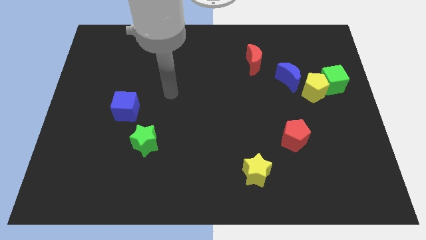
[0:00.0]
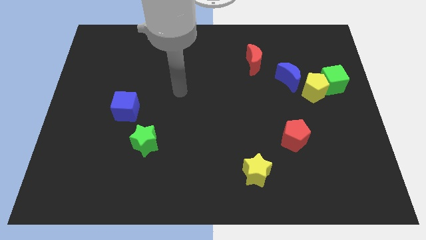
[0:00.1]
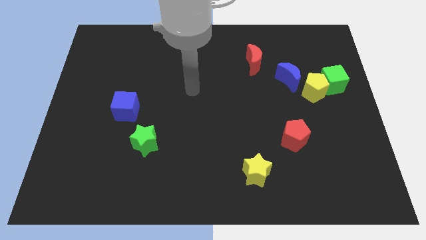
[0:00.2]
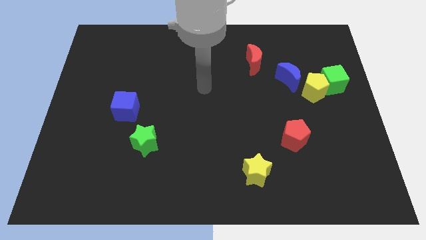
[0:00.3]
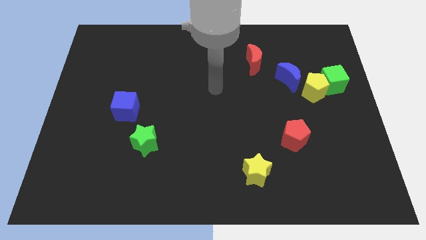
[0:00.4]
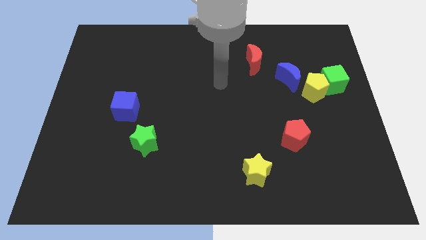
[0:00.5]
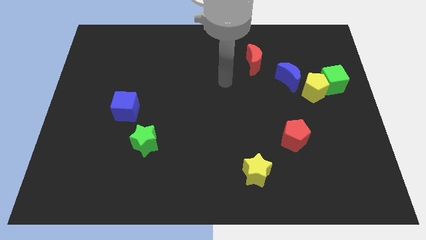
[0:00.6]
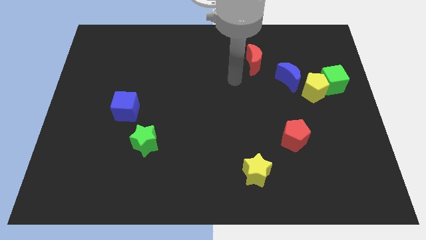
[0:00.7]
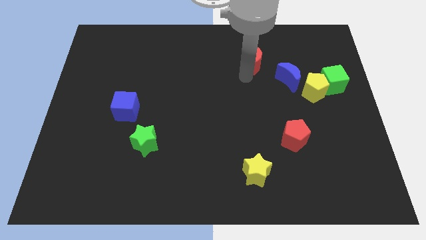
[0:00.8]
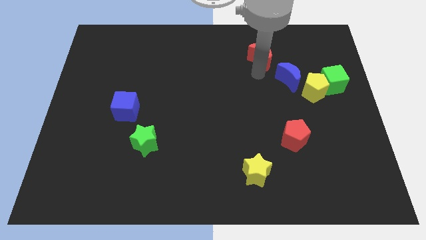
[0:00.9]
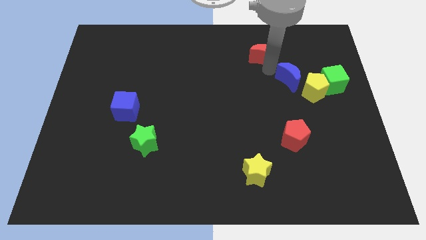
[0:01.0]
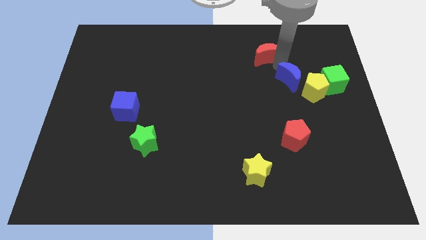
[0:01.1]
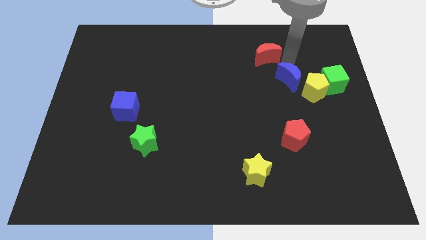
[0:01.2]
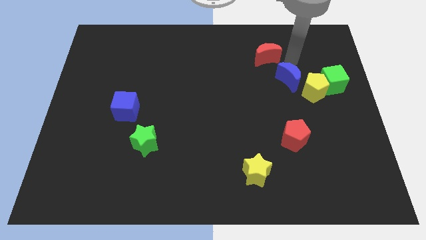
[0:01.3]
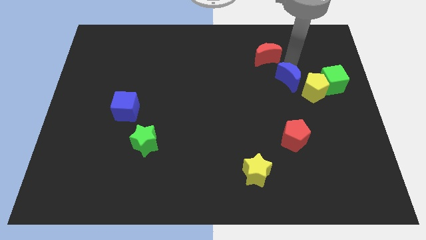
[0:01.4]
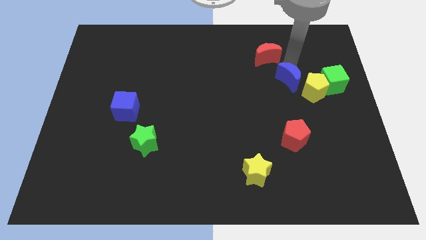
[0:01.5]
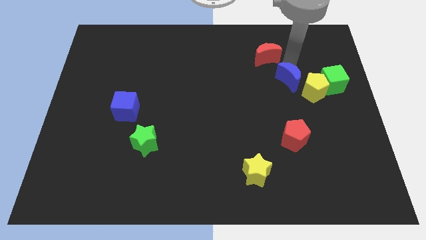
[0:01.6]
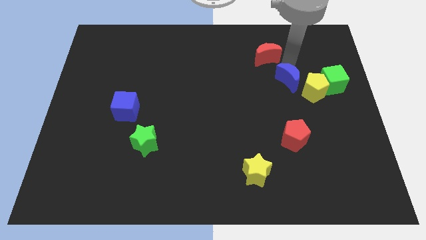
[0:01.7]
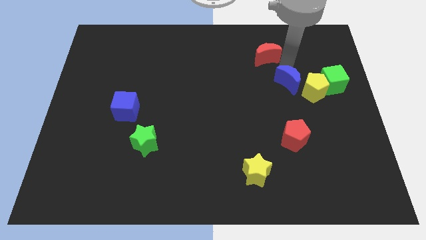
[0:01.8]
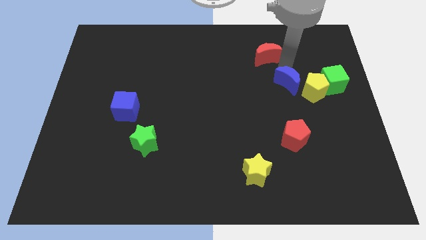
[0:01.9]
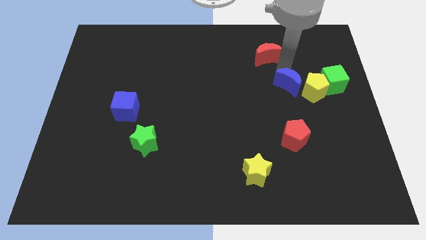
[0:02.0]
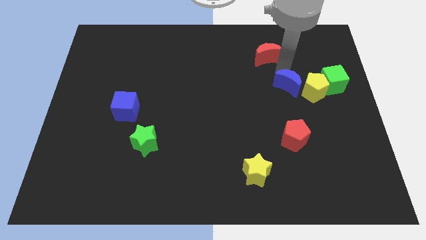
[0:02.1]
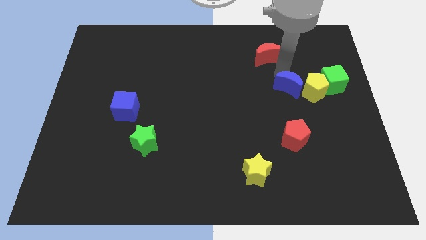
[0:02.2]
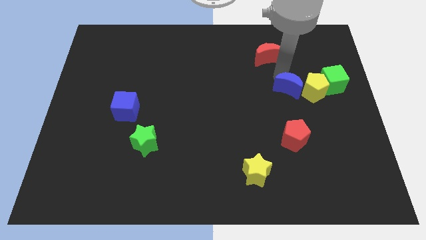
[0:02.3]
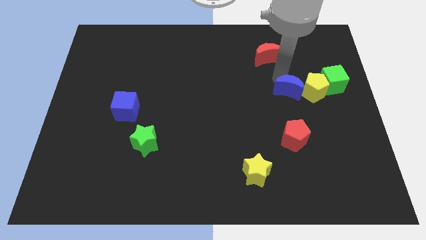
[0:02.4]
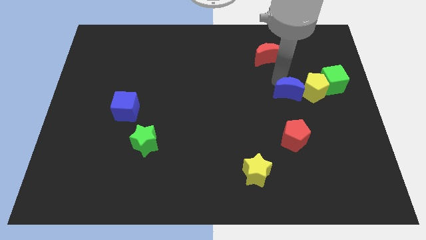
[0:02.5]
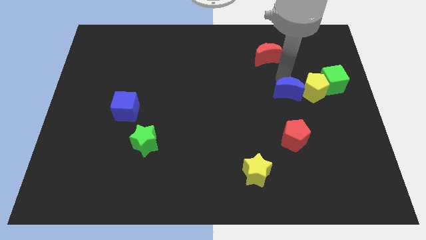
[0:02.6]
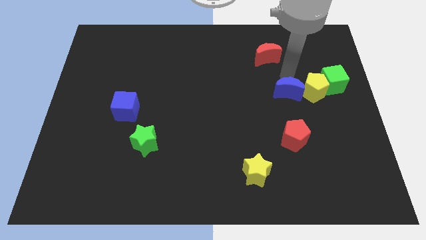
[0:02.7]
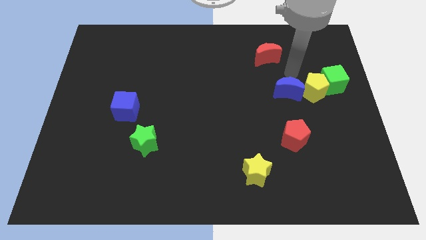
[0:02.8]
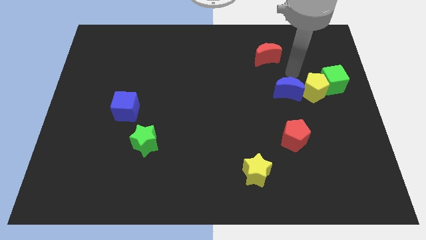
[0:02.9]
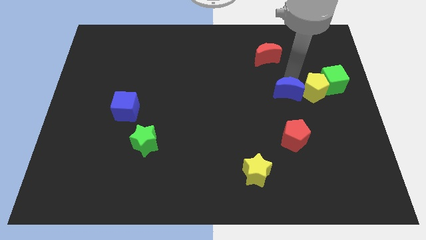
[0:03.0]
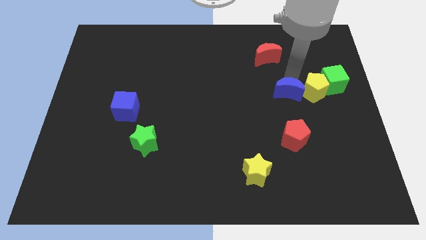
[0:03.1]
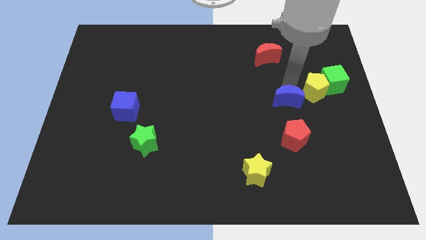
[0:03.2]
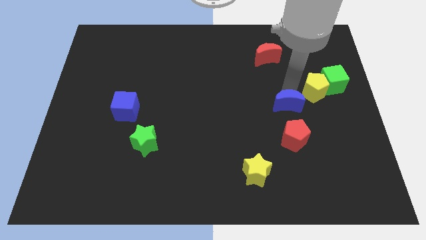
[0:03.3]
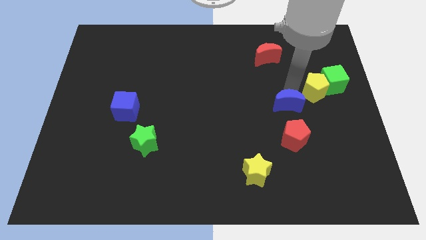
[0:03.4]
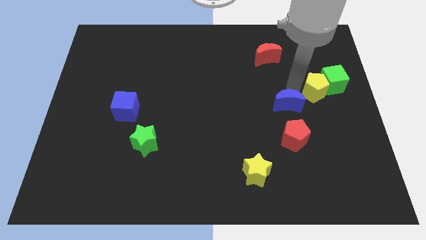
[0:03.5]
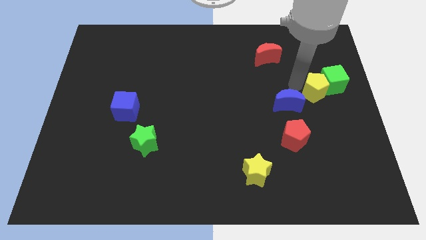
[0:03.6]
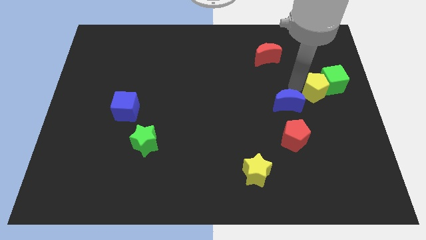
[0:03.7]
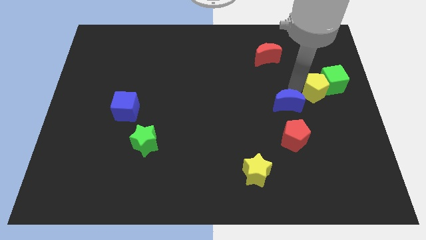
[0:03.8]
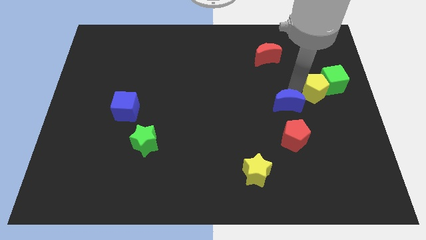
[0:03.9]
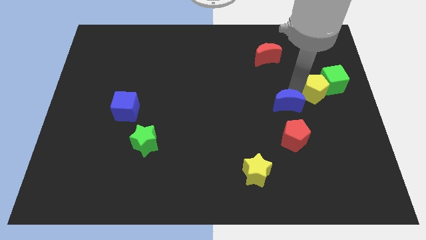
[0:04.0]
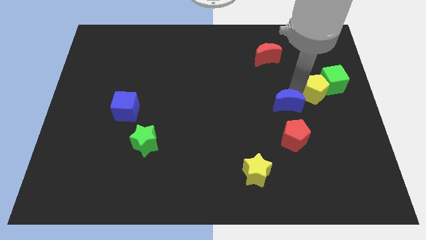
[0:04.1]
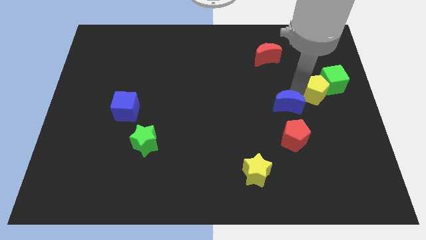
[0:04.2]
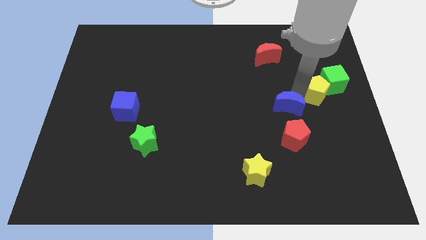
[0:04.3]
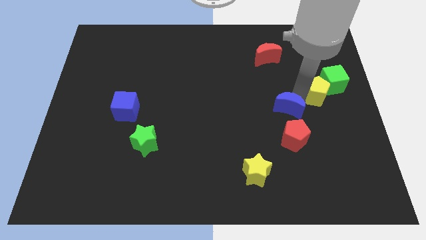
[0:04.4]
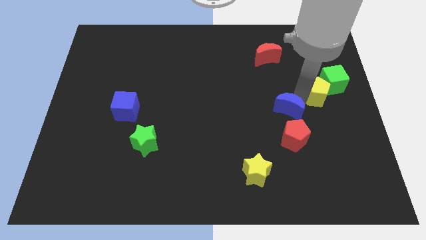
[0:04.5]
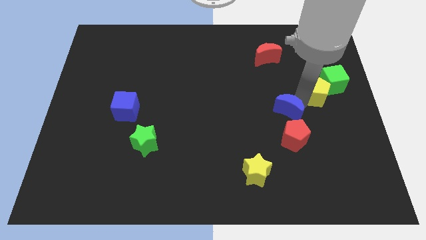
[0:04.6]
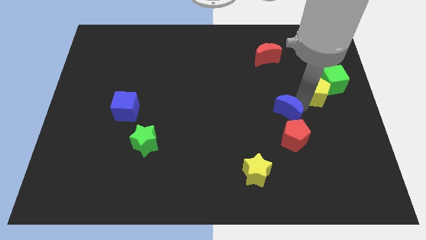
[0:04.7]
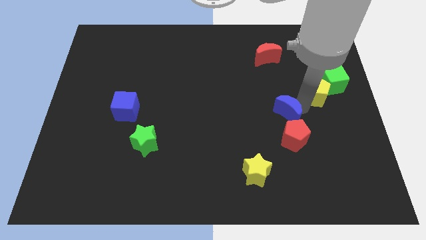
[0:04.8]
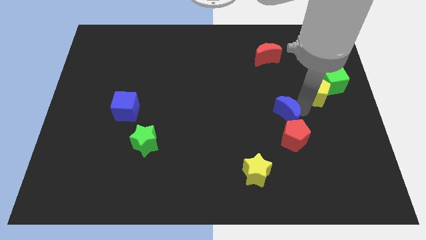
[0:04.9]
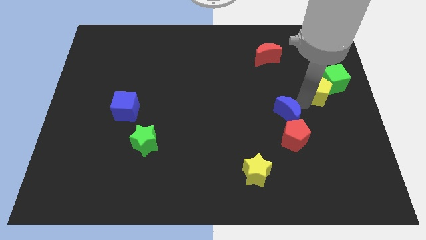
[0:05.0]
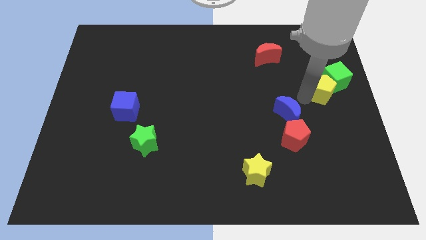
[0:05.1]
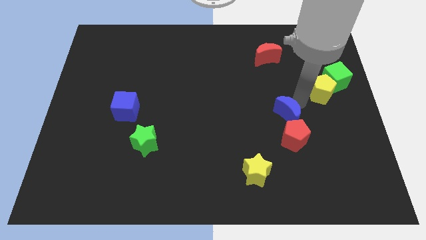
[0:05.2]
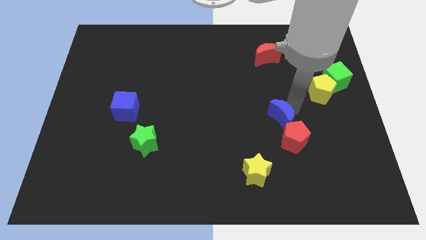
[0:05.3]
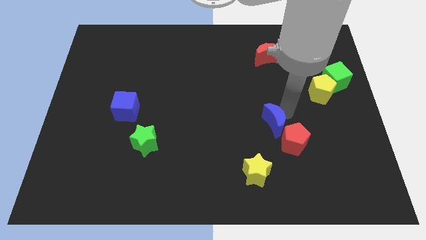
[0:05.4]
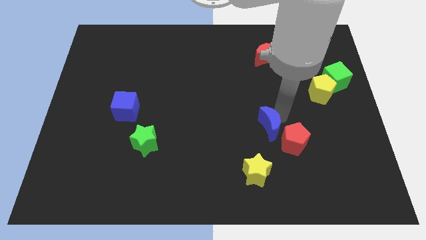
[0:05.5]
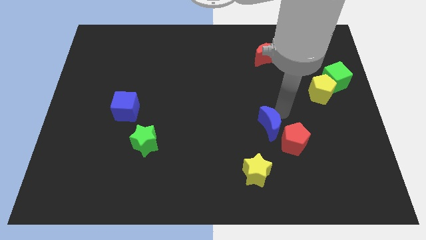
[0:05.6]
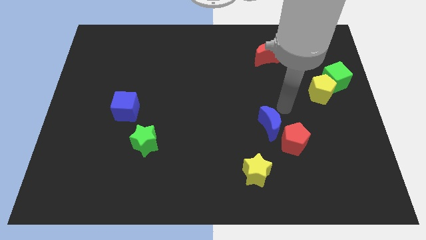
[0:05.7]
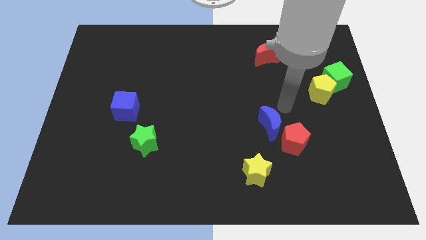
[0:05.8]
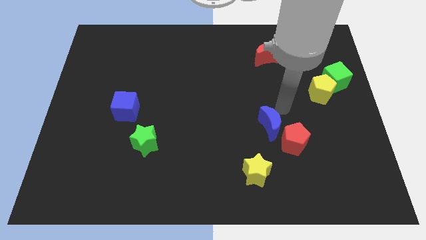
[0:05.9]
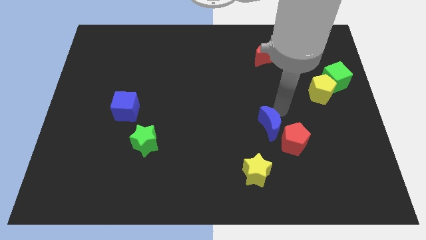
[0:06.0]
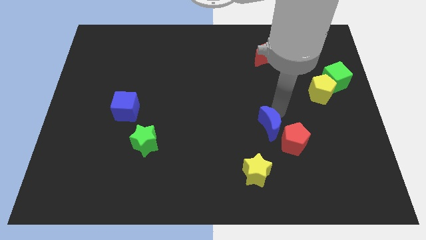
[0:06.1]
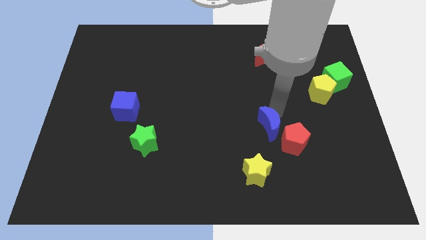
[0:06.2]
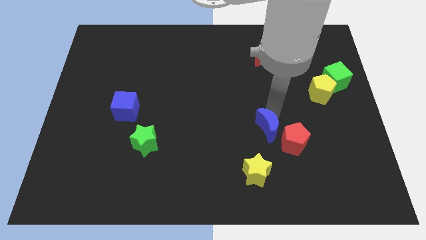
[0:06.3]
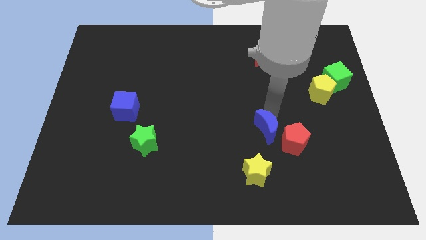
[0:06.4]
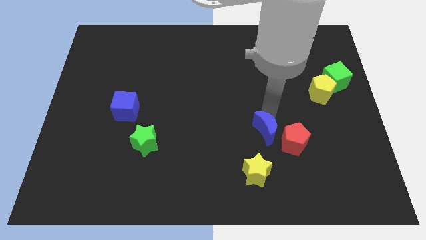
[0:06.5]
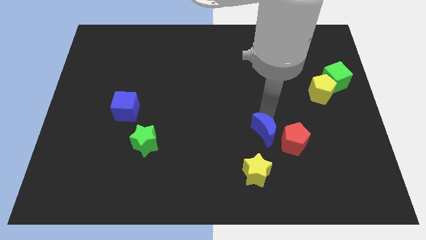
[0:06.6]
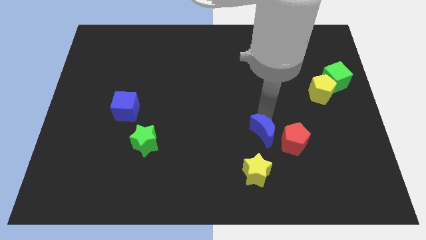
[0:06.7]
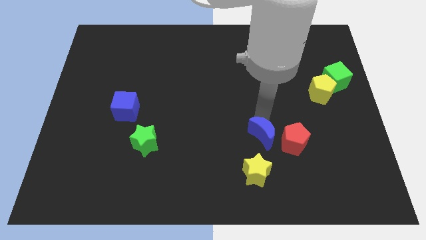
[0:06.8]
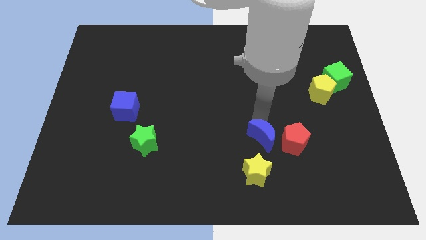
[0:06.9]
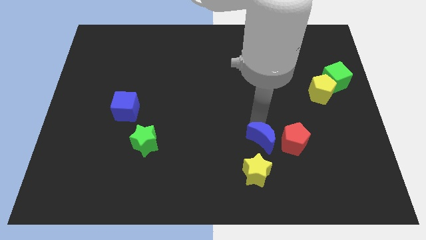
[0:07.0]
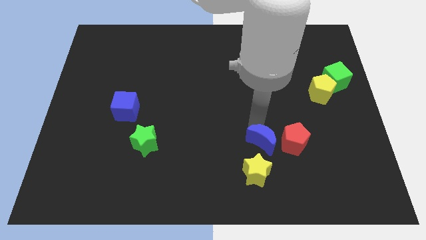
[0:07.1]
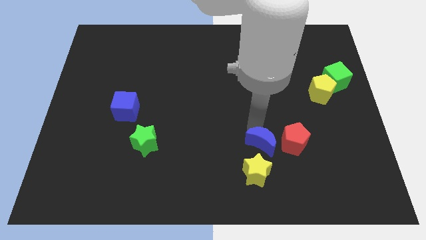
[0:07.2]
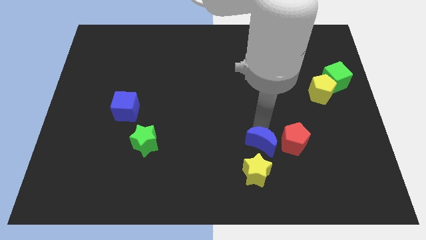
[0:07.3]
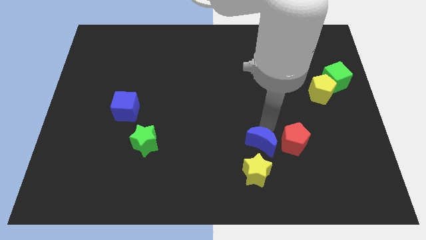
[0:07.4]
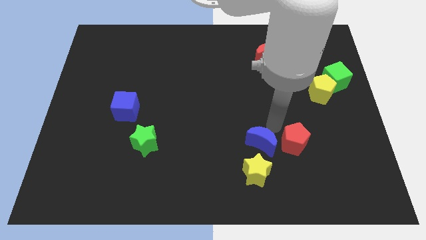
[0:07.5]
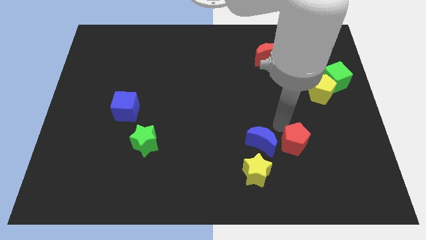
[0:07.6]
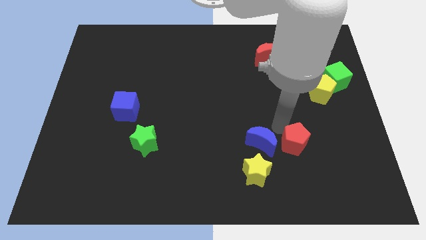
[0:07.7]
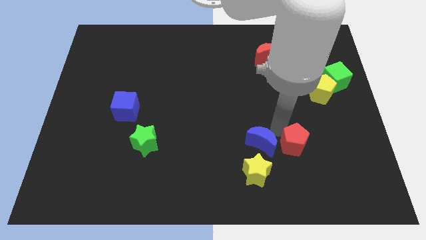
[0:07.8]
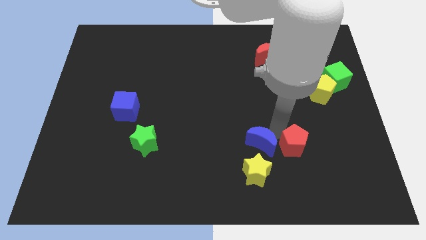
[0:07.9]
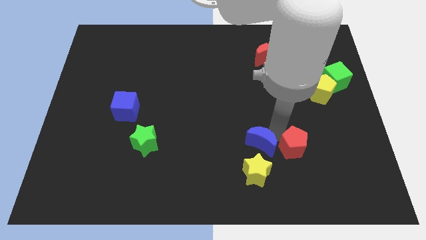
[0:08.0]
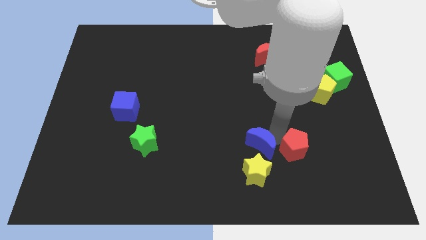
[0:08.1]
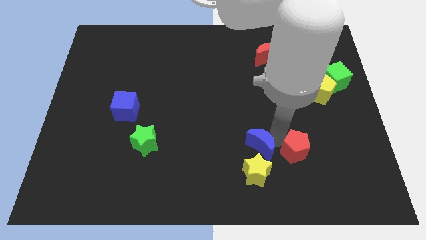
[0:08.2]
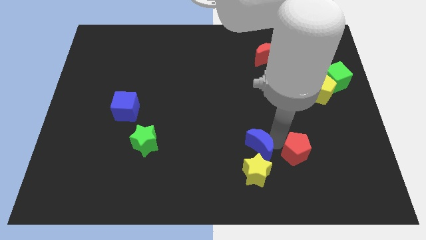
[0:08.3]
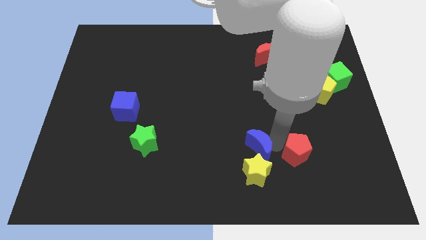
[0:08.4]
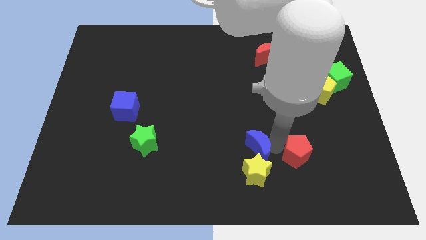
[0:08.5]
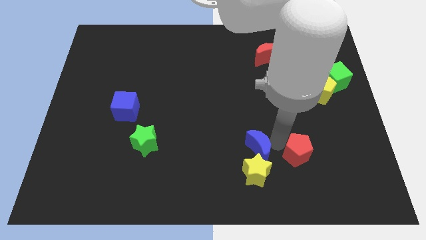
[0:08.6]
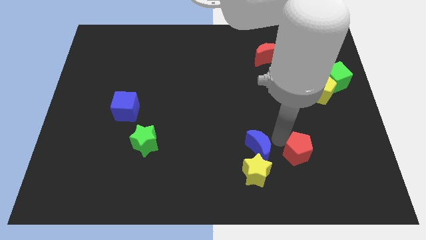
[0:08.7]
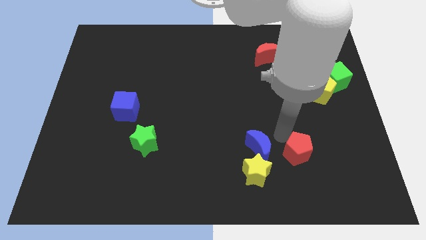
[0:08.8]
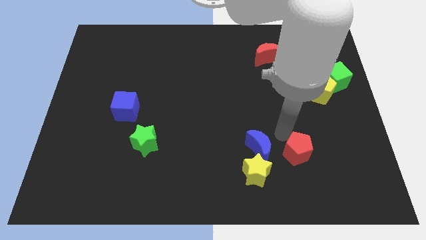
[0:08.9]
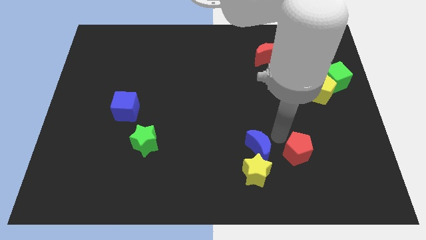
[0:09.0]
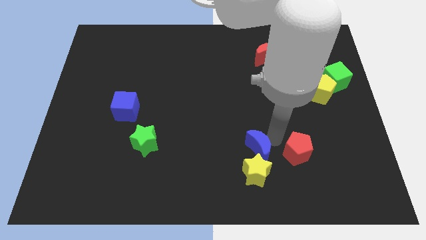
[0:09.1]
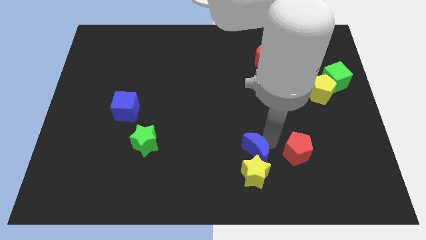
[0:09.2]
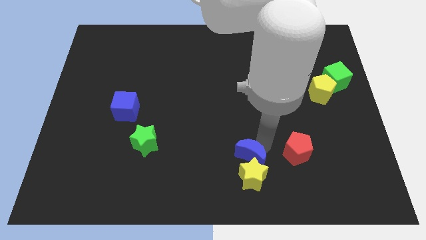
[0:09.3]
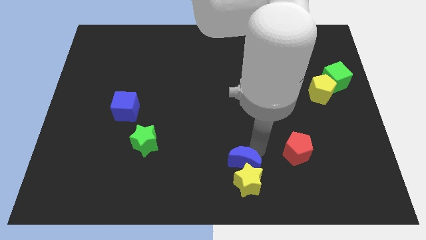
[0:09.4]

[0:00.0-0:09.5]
put the blue moon to the bottom side
